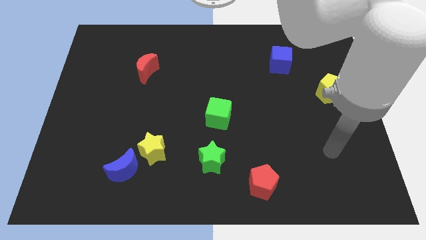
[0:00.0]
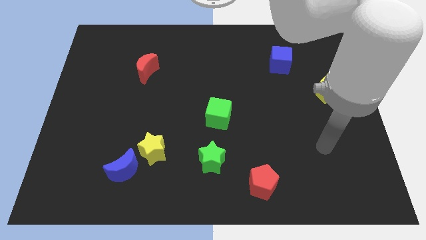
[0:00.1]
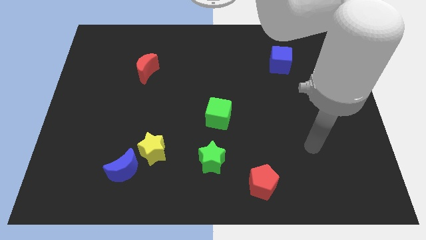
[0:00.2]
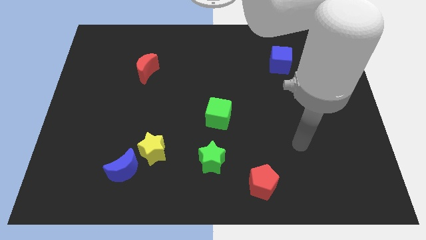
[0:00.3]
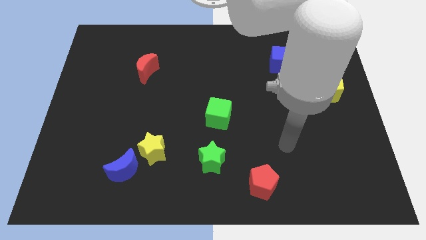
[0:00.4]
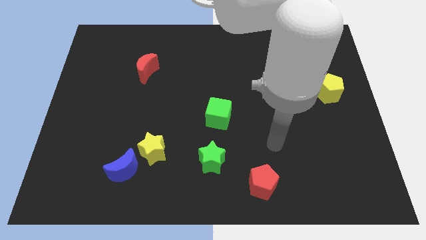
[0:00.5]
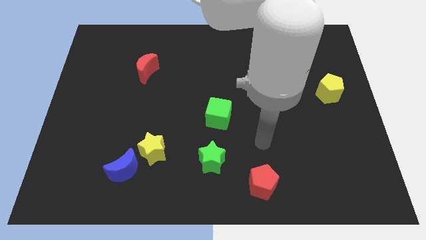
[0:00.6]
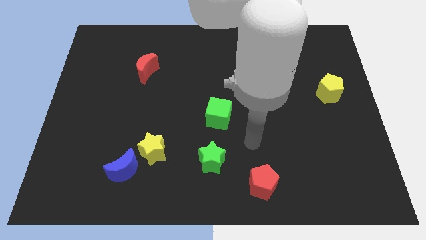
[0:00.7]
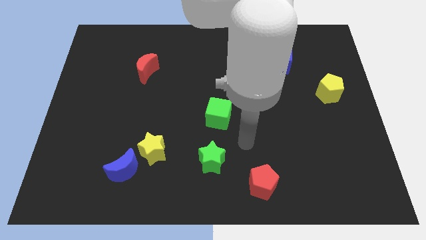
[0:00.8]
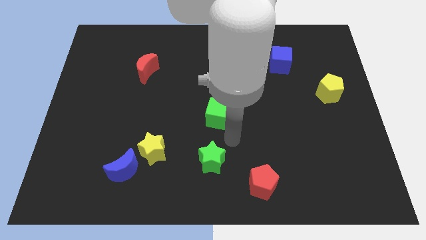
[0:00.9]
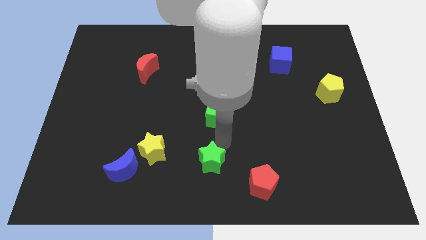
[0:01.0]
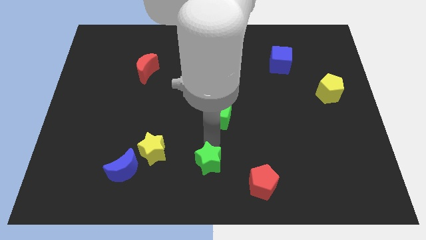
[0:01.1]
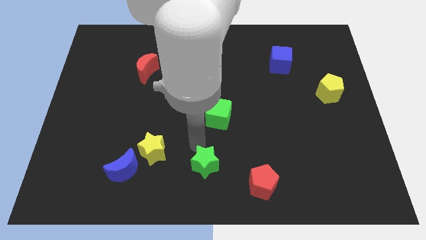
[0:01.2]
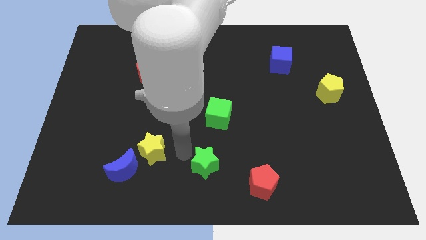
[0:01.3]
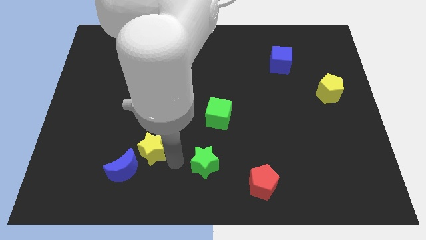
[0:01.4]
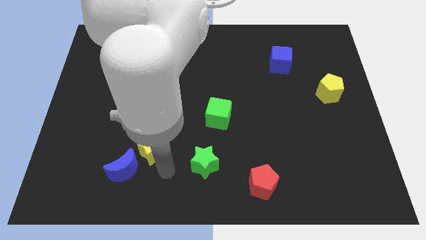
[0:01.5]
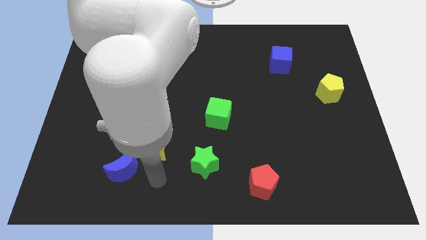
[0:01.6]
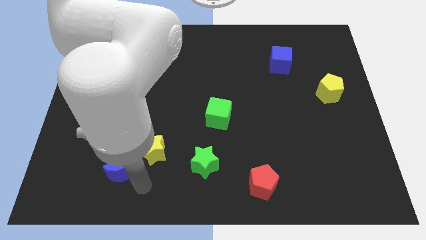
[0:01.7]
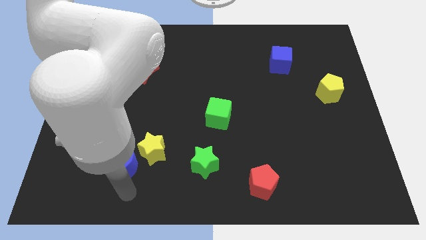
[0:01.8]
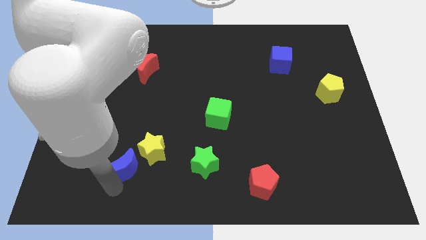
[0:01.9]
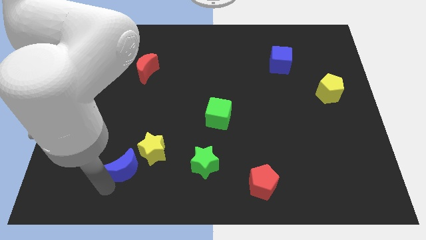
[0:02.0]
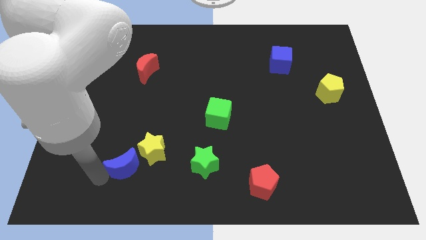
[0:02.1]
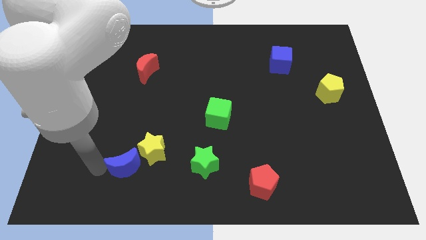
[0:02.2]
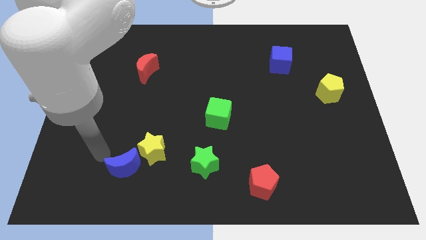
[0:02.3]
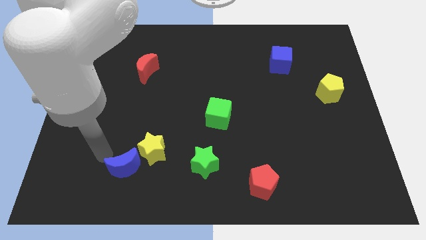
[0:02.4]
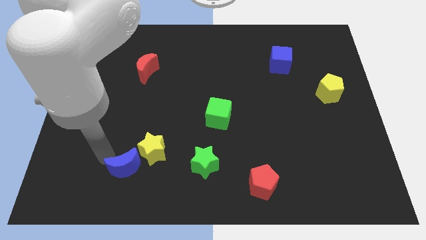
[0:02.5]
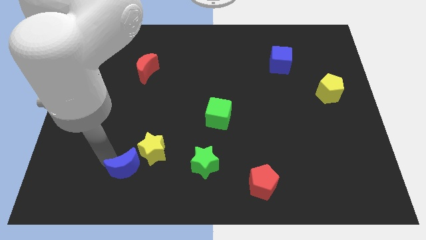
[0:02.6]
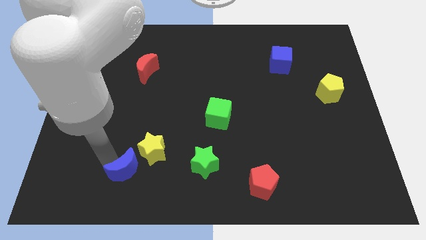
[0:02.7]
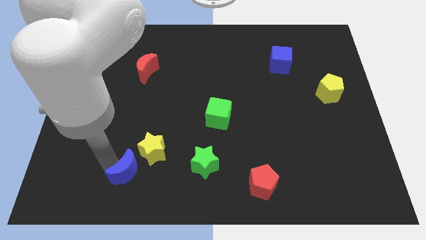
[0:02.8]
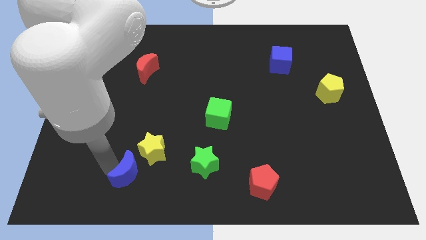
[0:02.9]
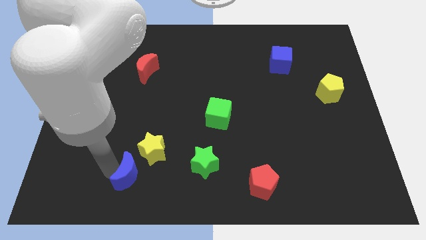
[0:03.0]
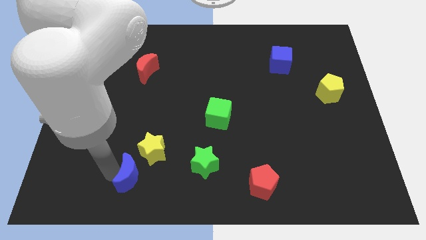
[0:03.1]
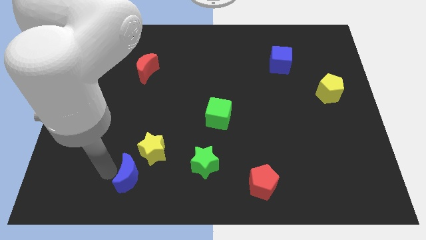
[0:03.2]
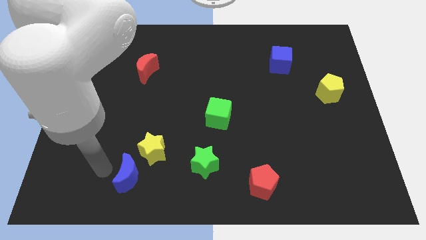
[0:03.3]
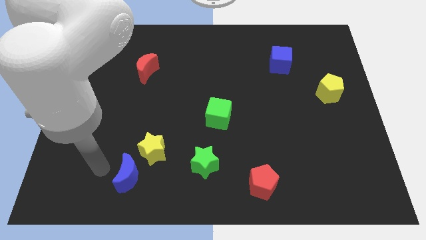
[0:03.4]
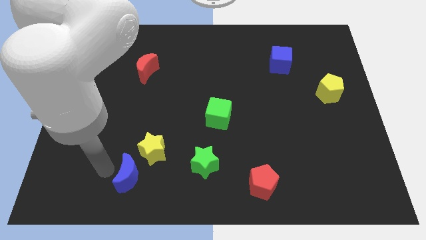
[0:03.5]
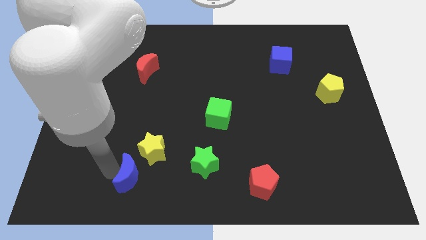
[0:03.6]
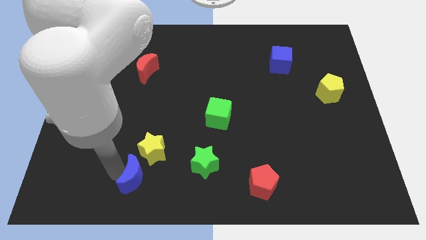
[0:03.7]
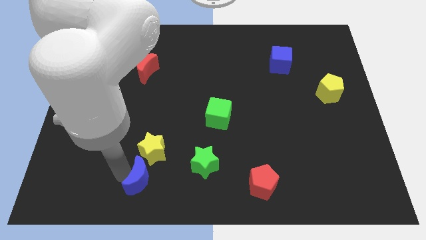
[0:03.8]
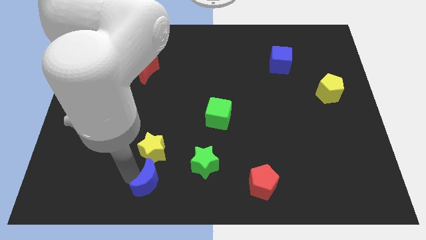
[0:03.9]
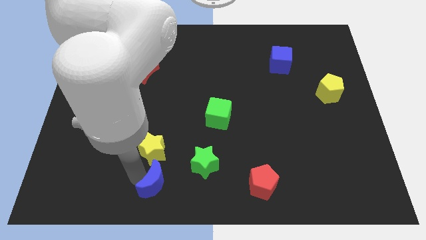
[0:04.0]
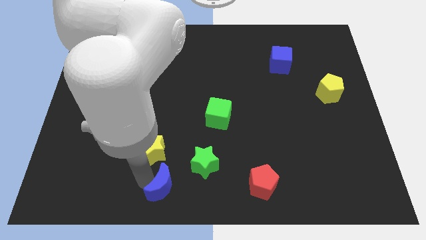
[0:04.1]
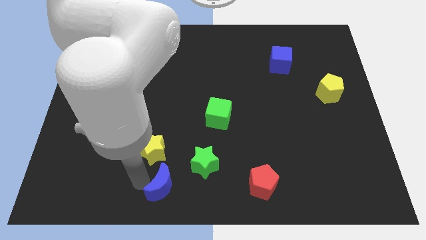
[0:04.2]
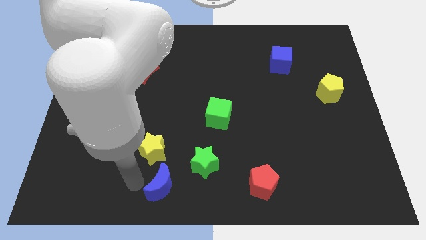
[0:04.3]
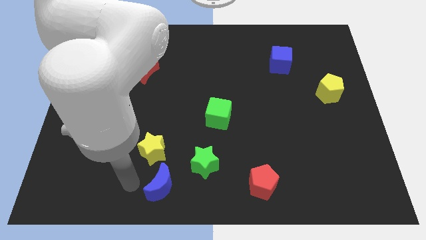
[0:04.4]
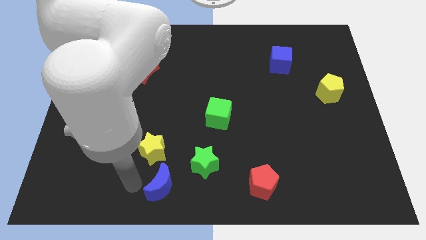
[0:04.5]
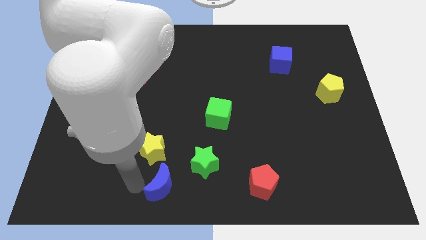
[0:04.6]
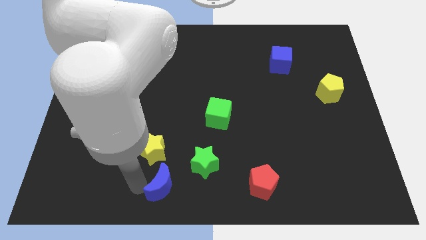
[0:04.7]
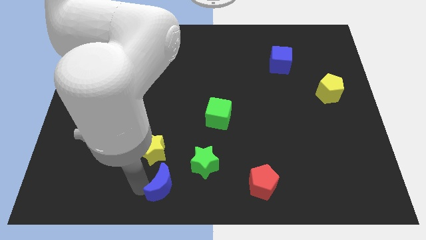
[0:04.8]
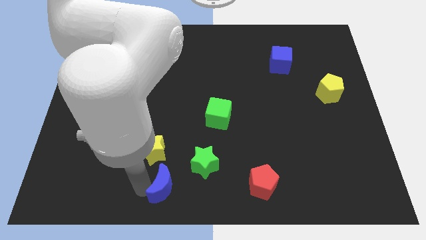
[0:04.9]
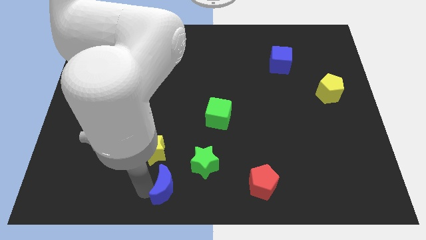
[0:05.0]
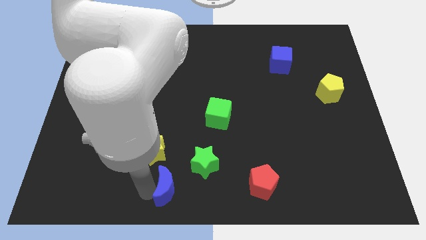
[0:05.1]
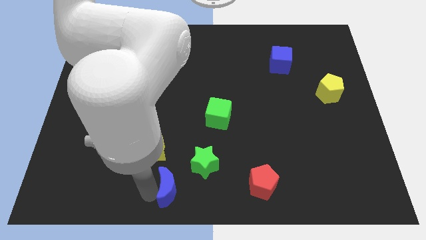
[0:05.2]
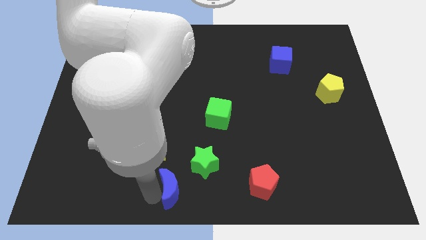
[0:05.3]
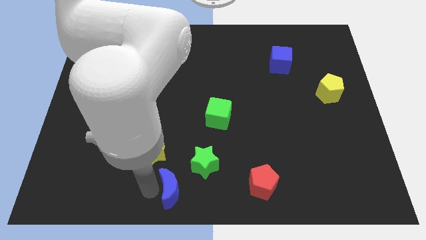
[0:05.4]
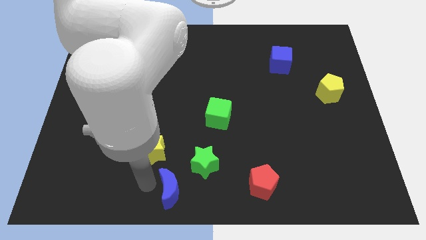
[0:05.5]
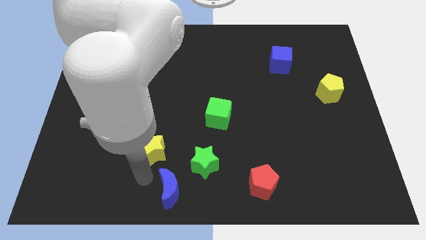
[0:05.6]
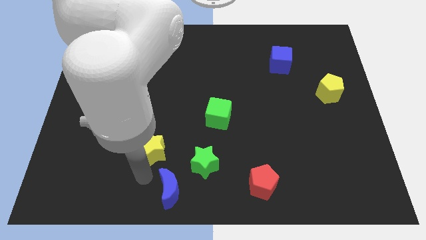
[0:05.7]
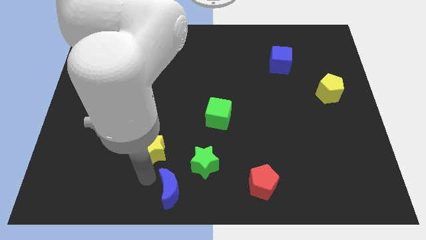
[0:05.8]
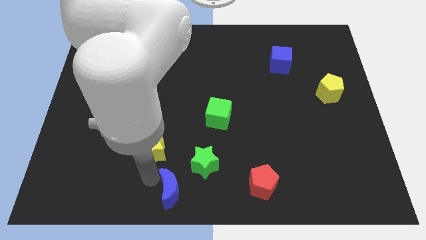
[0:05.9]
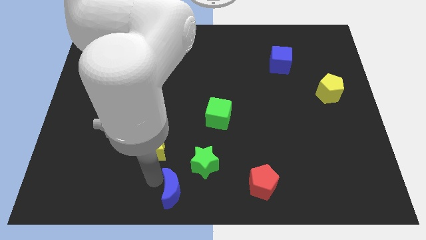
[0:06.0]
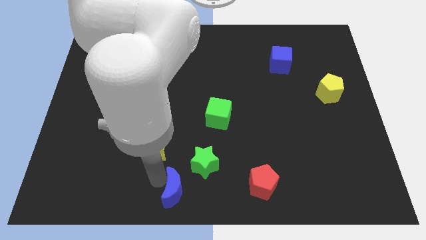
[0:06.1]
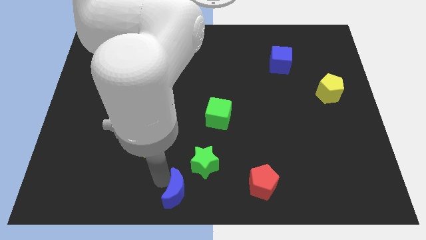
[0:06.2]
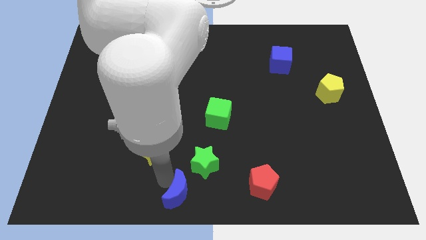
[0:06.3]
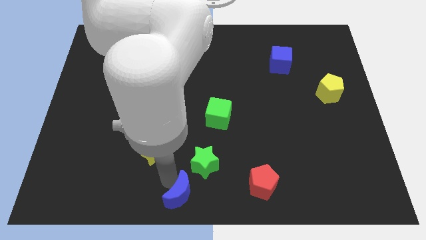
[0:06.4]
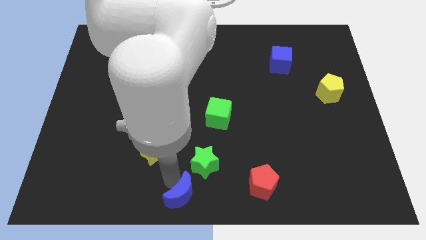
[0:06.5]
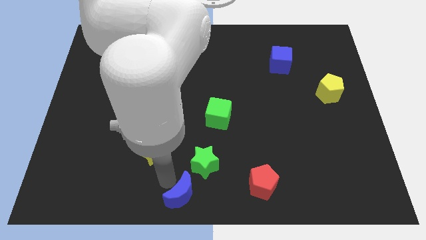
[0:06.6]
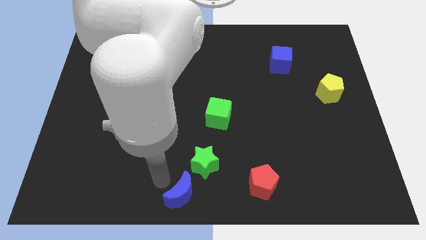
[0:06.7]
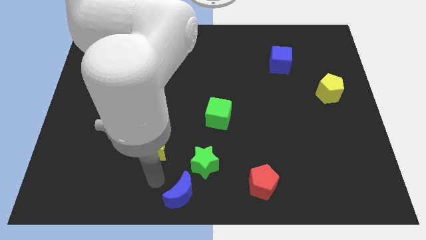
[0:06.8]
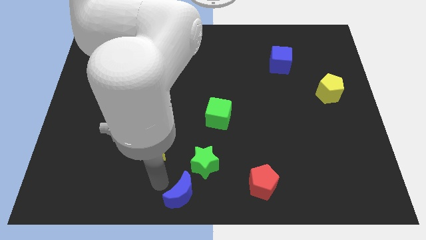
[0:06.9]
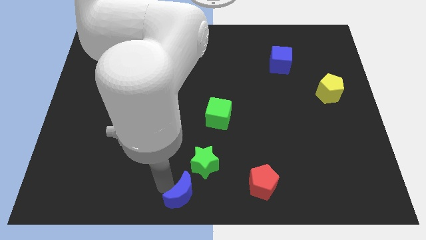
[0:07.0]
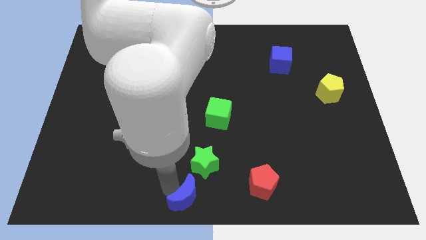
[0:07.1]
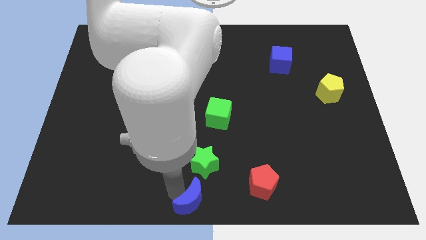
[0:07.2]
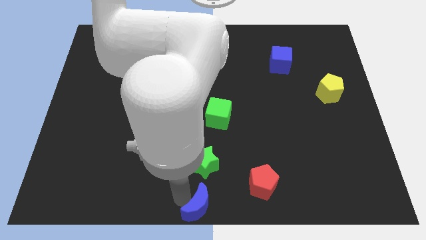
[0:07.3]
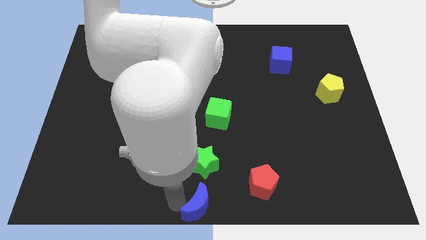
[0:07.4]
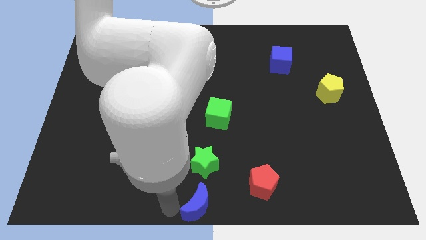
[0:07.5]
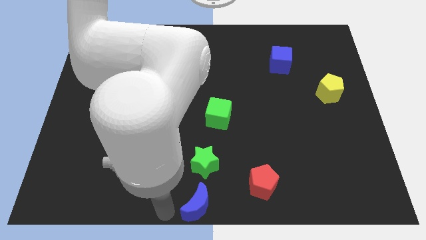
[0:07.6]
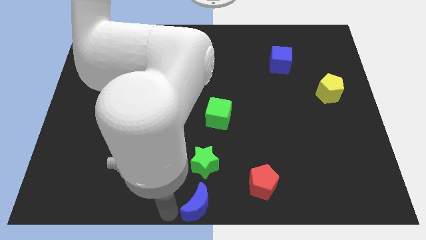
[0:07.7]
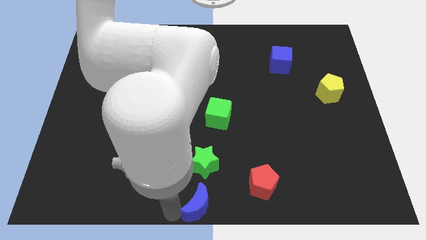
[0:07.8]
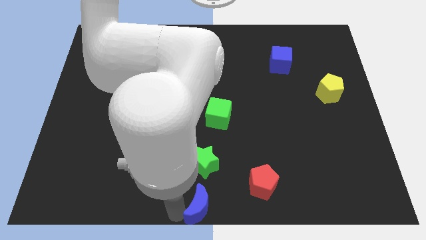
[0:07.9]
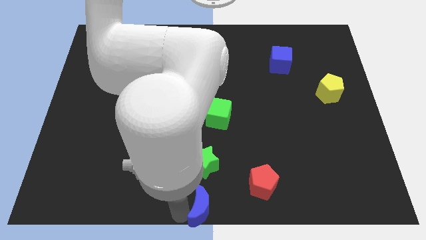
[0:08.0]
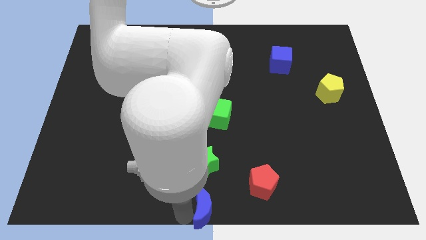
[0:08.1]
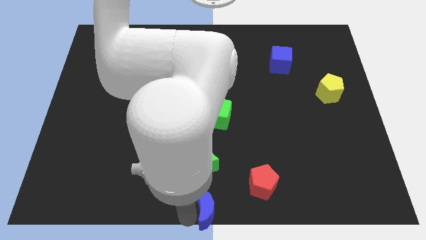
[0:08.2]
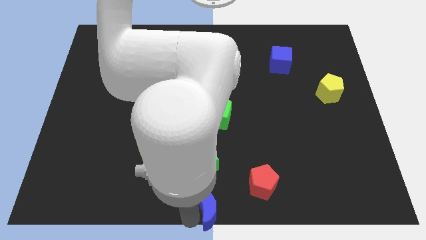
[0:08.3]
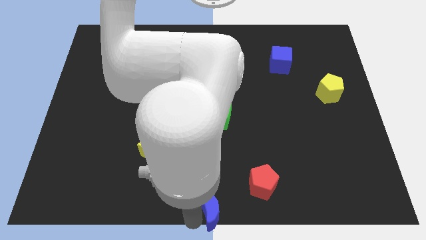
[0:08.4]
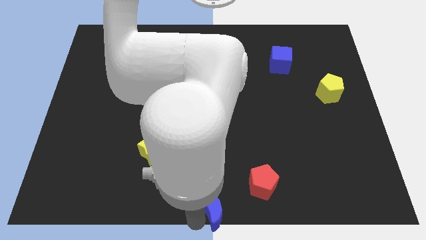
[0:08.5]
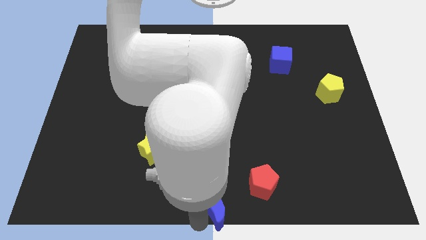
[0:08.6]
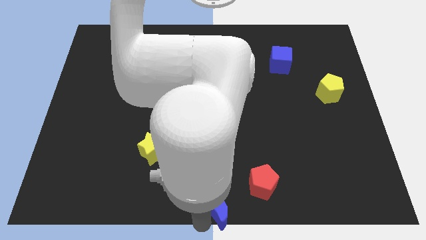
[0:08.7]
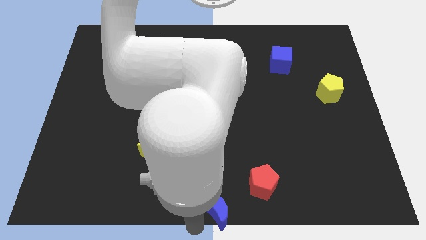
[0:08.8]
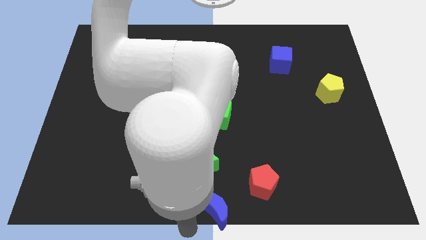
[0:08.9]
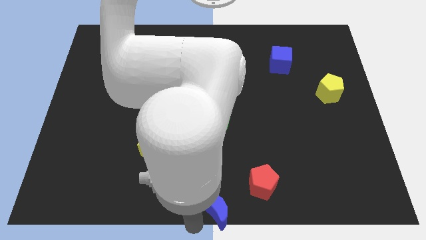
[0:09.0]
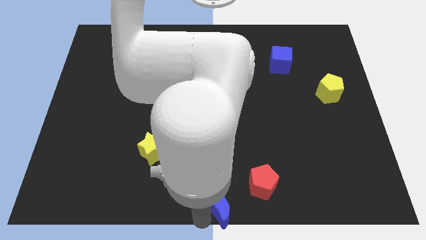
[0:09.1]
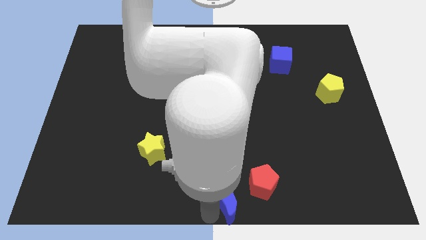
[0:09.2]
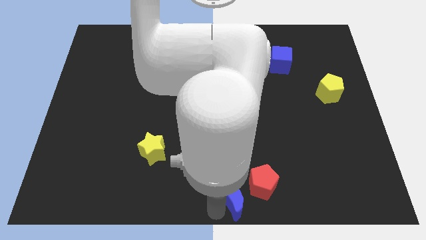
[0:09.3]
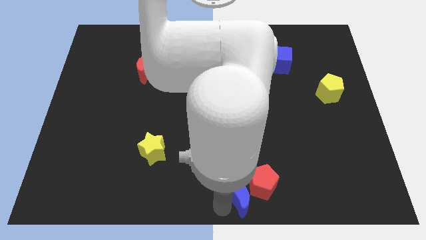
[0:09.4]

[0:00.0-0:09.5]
put the blue moon to the red pentagon
